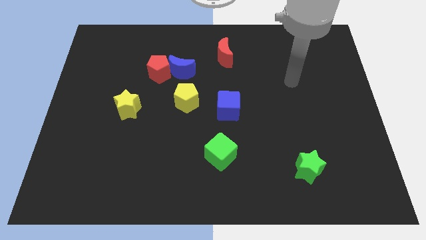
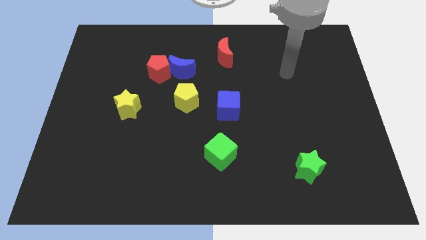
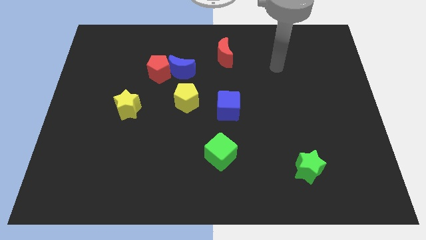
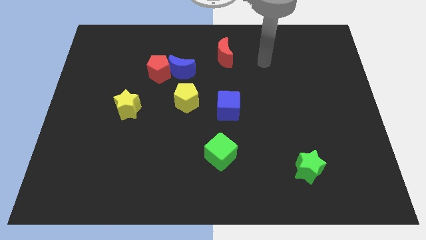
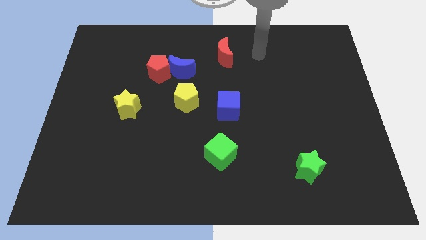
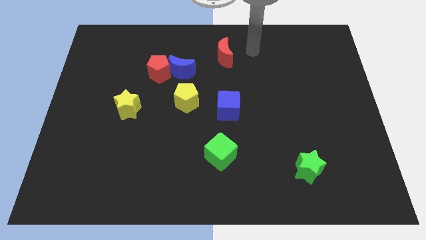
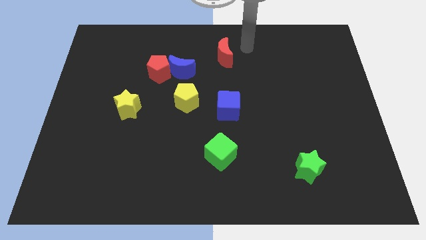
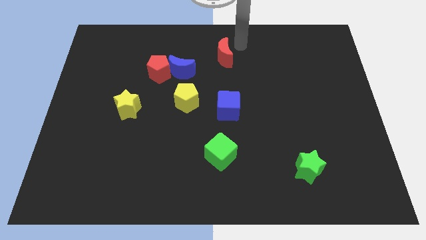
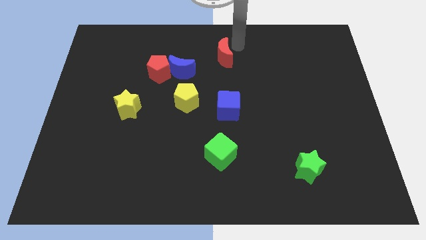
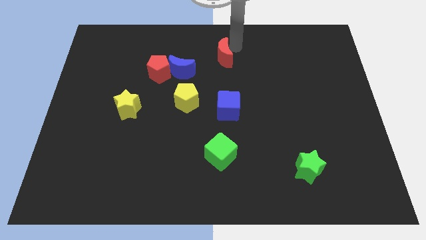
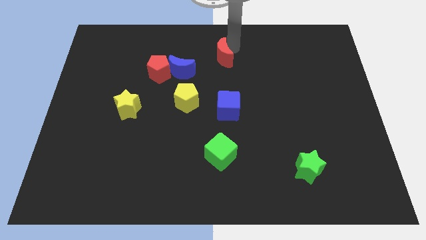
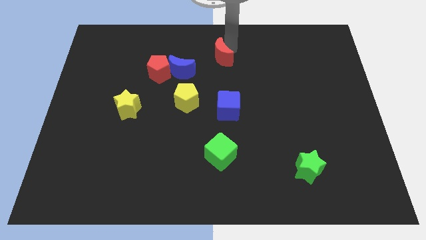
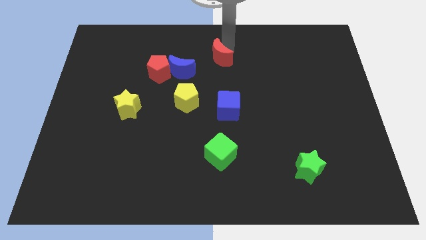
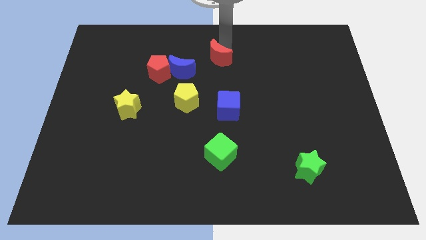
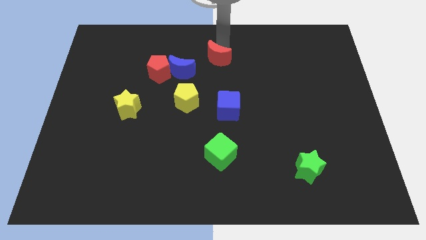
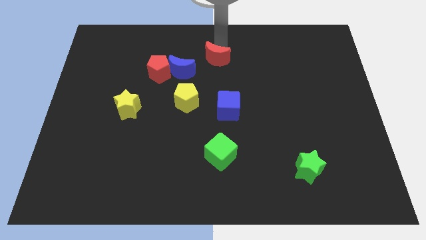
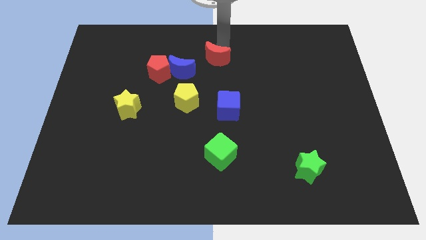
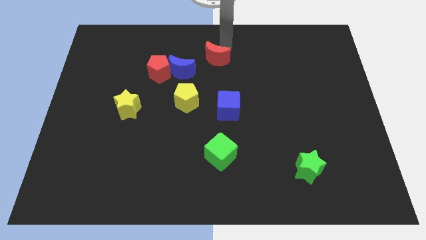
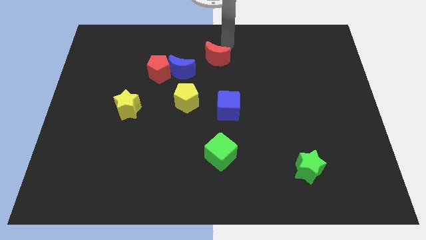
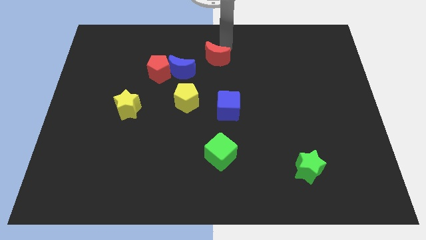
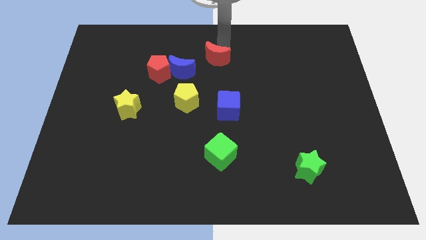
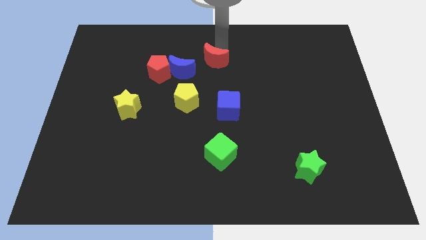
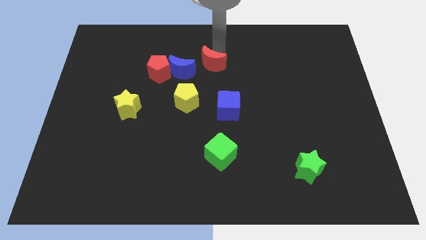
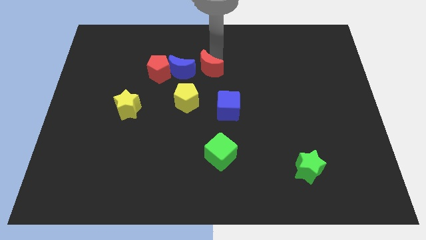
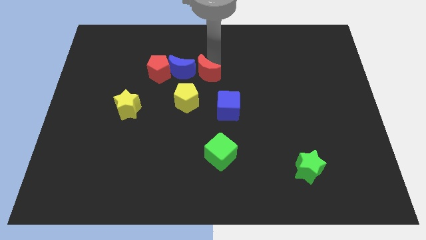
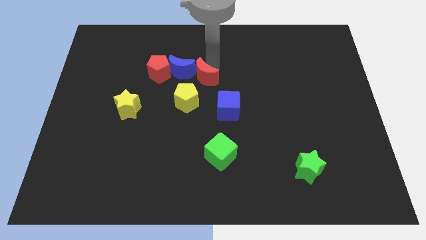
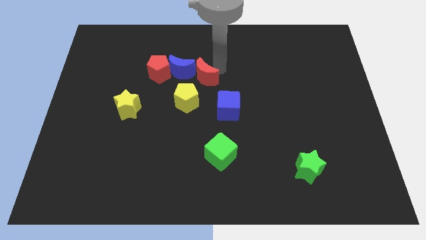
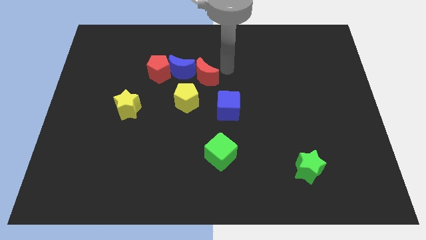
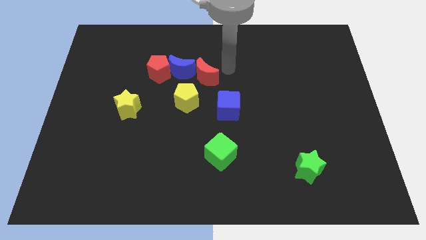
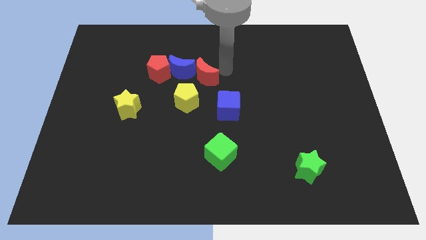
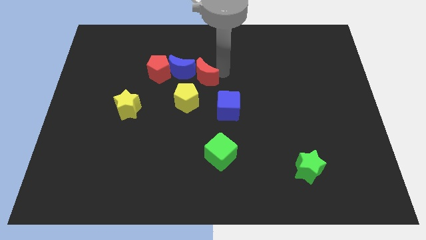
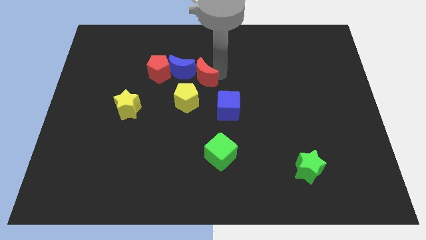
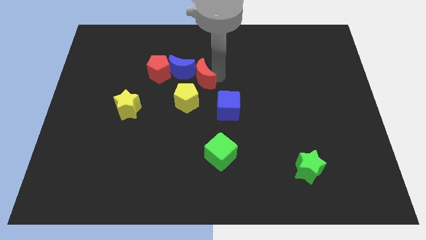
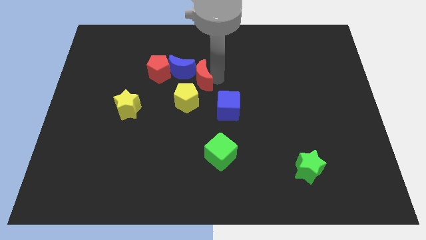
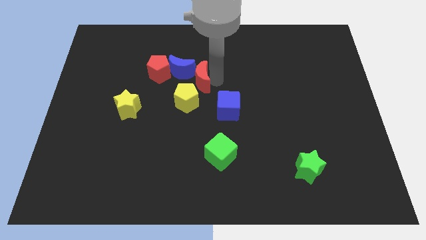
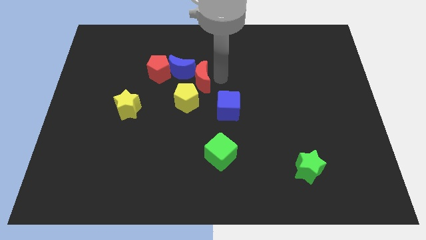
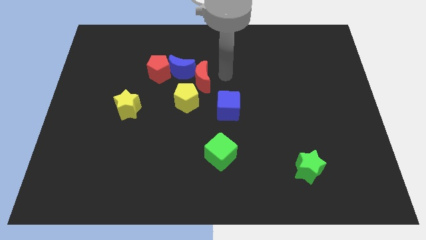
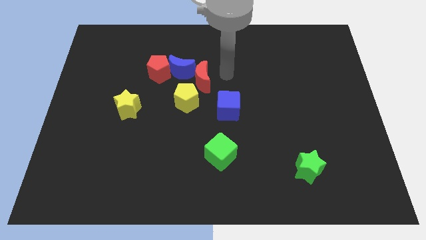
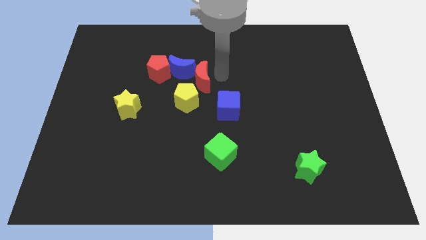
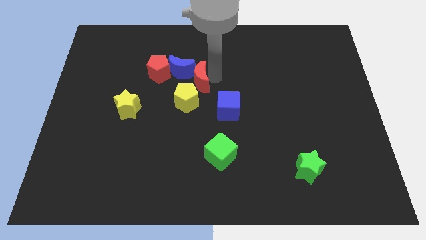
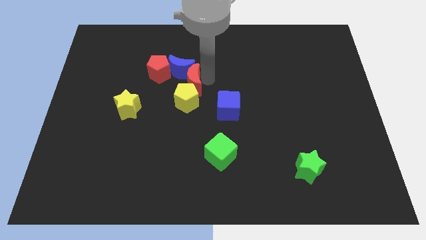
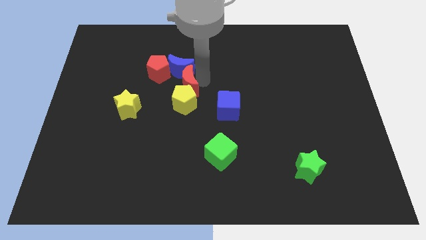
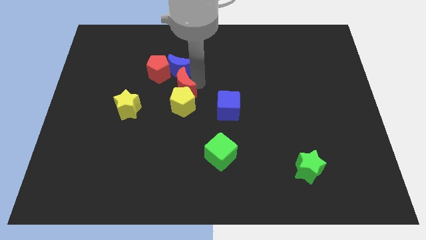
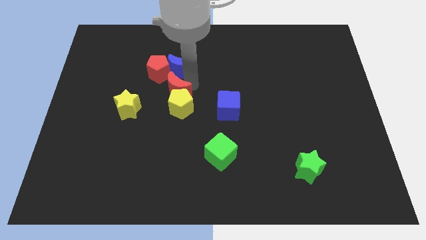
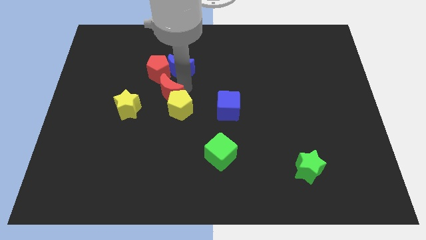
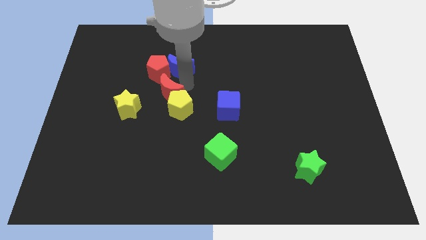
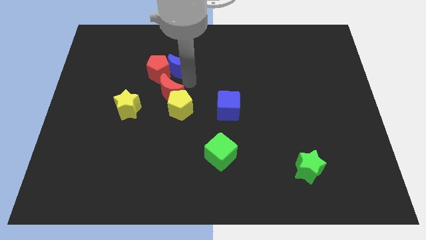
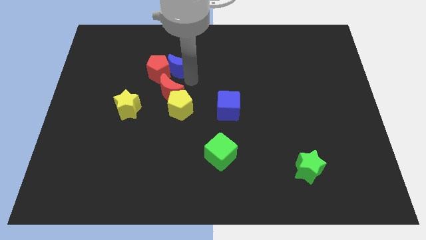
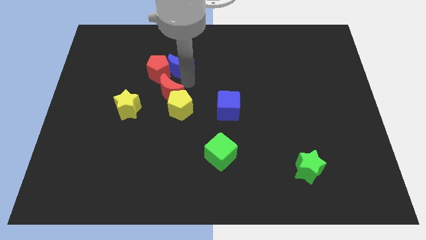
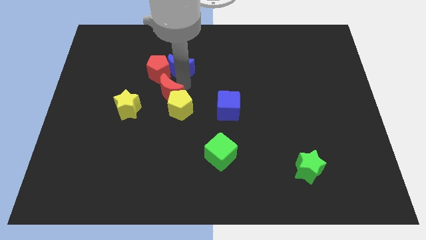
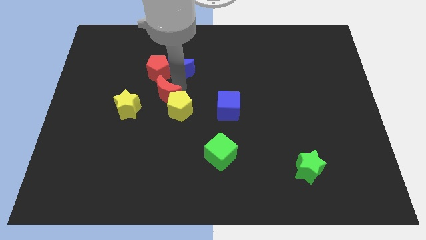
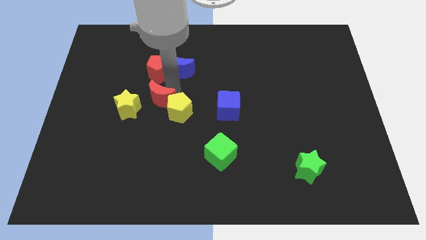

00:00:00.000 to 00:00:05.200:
push the red moon down and then left

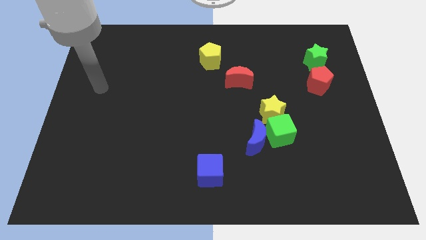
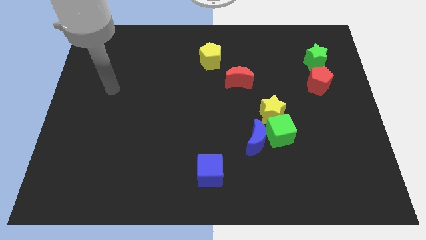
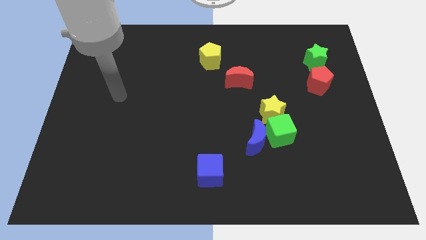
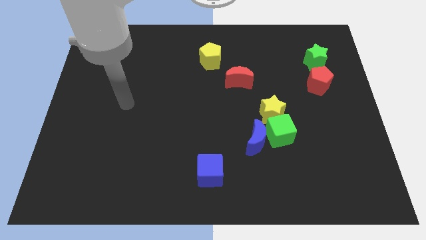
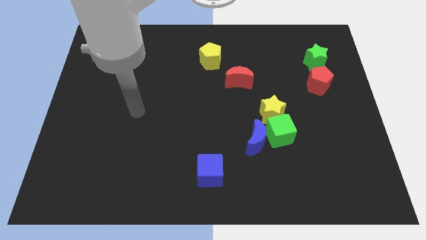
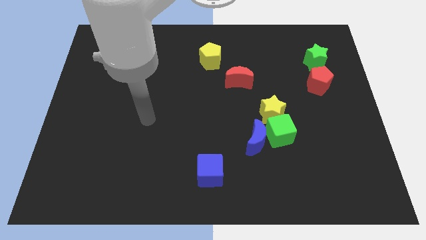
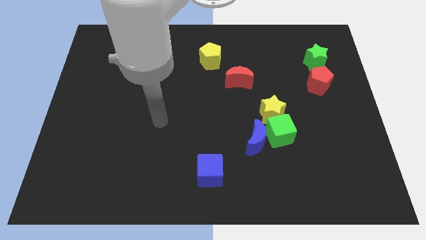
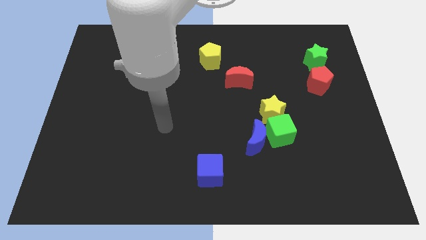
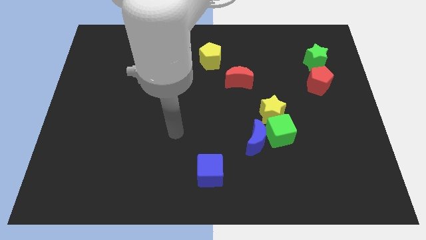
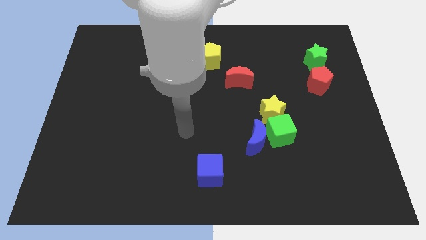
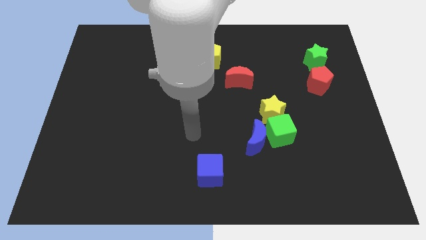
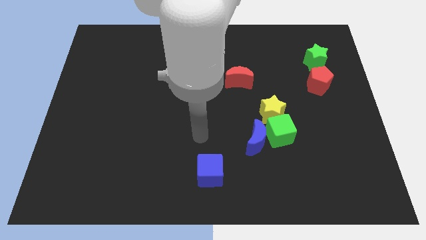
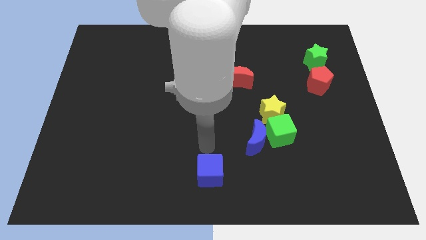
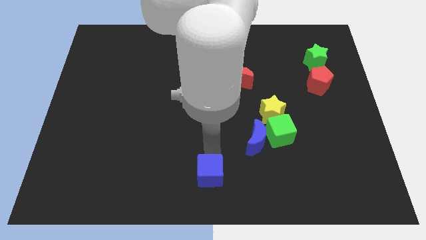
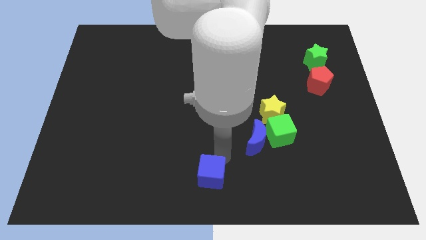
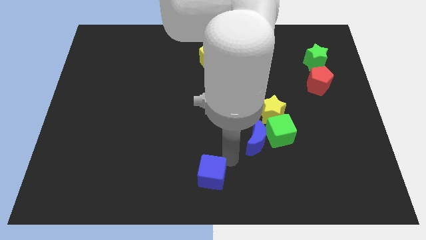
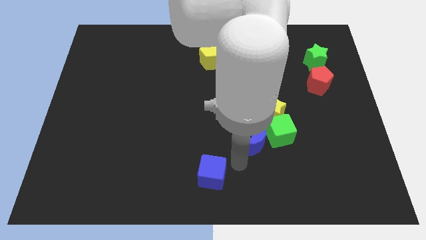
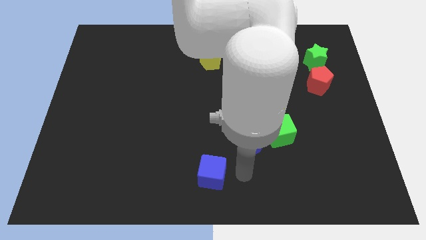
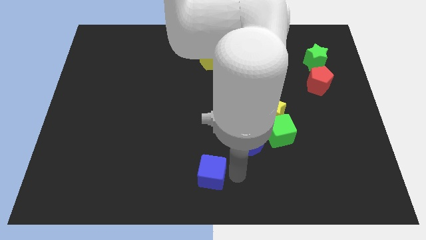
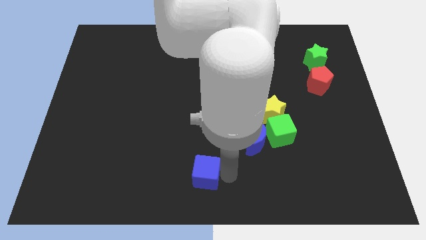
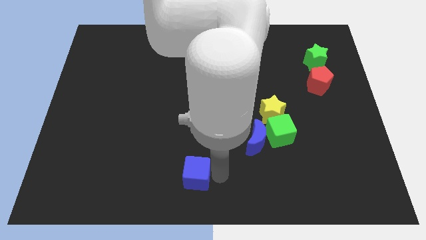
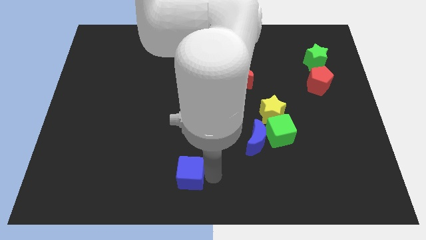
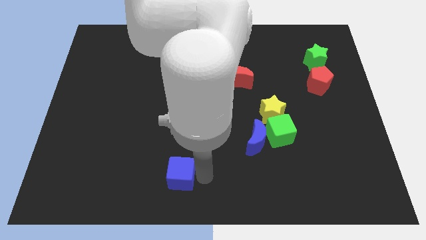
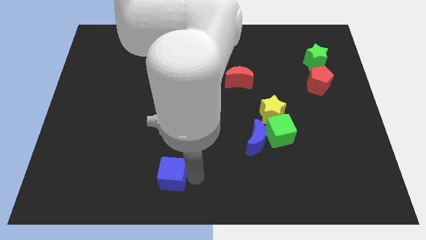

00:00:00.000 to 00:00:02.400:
slightly move the blue cube to the left
